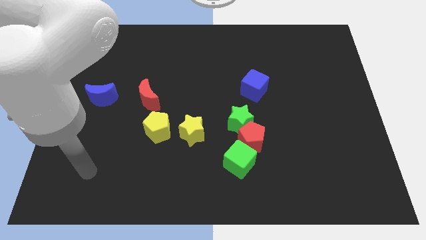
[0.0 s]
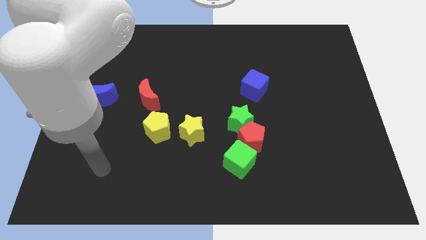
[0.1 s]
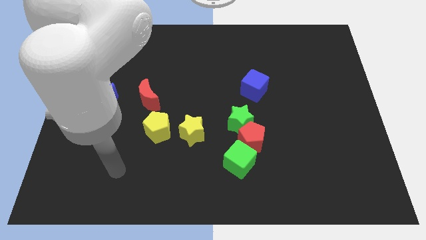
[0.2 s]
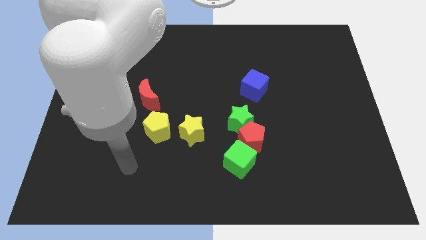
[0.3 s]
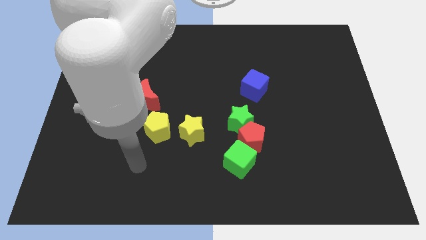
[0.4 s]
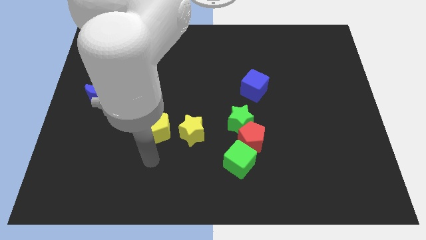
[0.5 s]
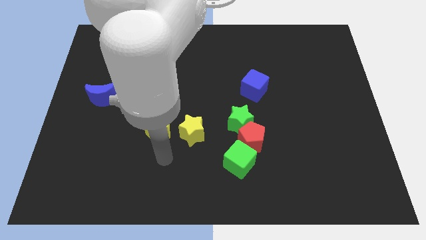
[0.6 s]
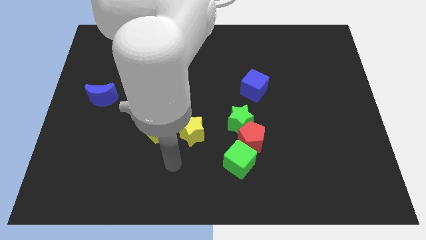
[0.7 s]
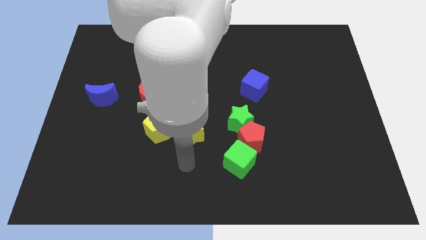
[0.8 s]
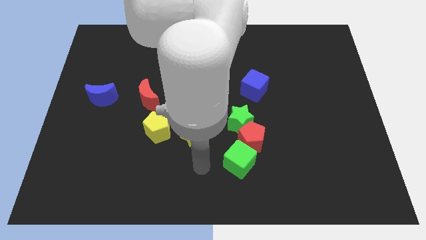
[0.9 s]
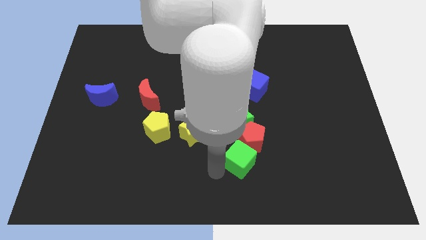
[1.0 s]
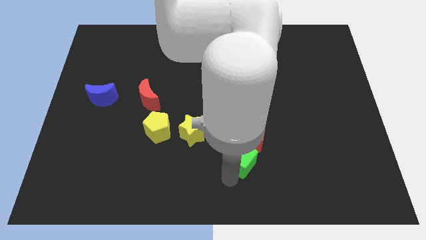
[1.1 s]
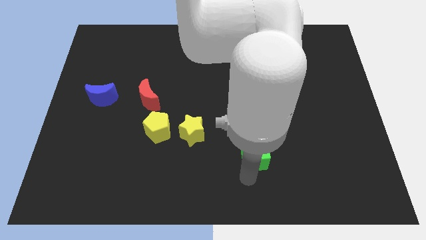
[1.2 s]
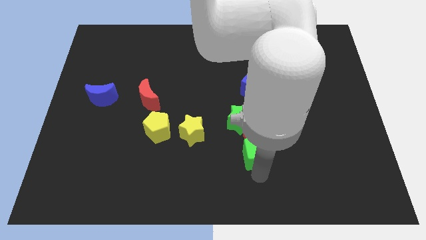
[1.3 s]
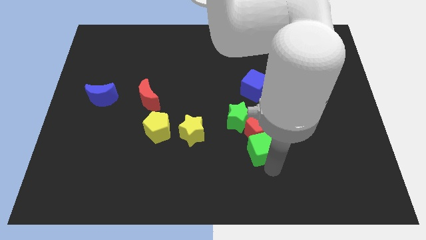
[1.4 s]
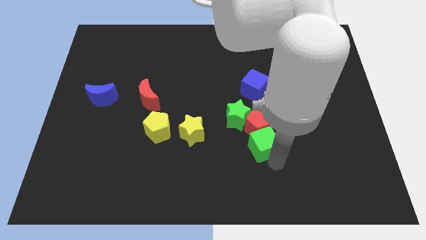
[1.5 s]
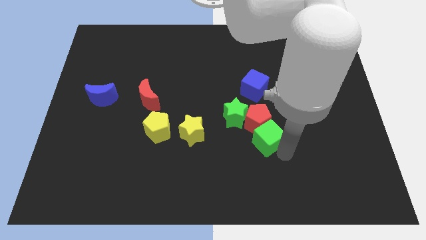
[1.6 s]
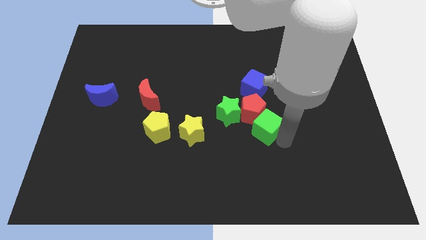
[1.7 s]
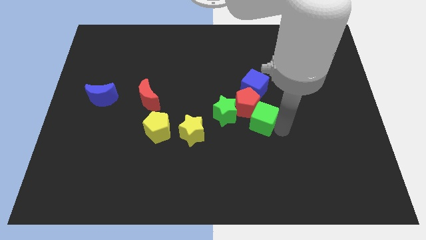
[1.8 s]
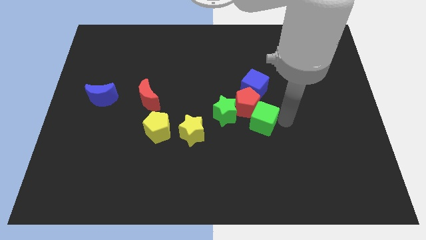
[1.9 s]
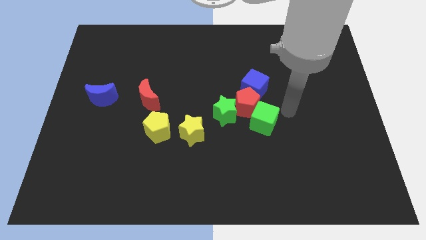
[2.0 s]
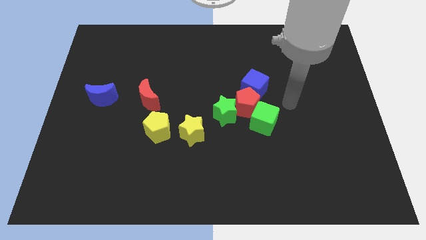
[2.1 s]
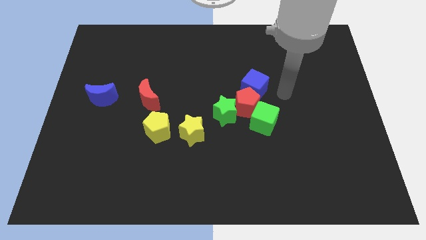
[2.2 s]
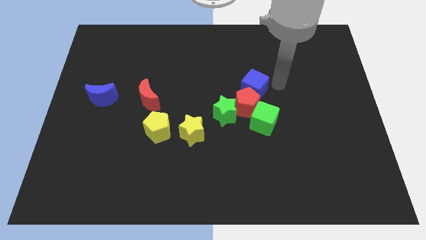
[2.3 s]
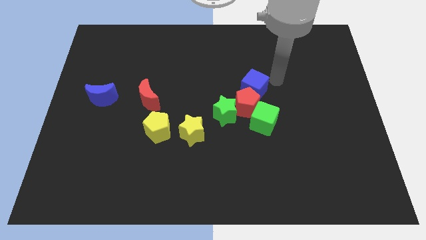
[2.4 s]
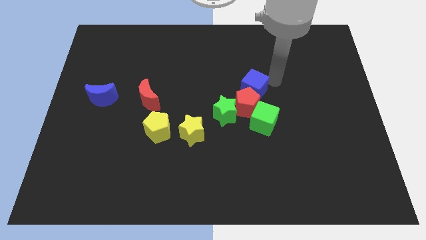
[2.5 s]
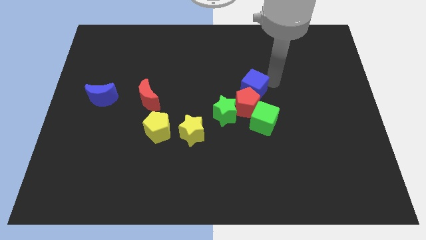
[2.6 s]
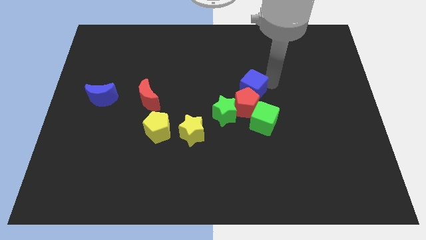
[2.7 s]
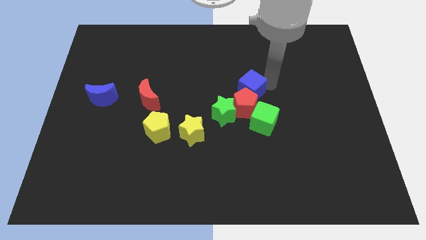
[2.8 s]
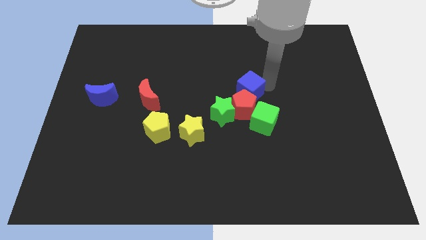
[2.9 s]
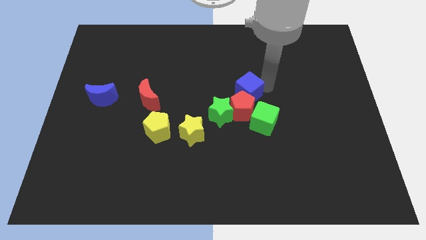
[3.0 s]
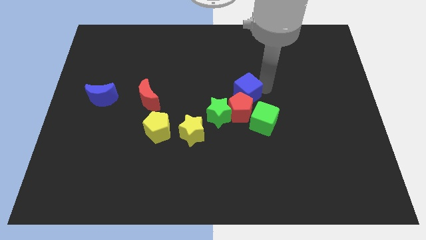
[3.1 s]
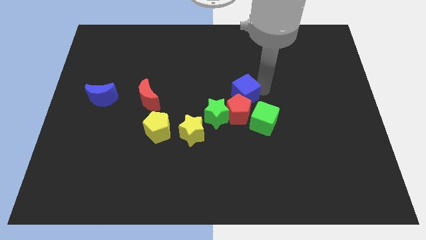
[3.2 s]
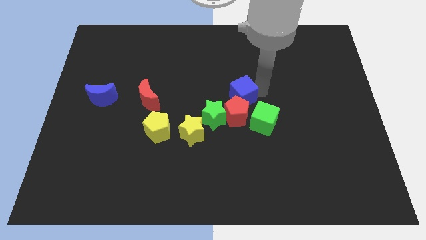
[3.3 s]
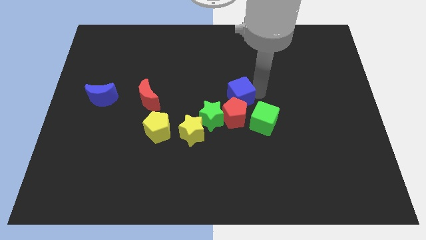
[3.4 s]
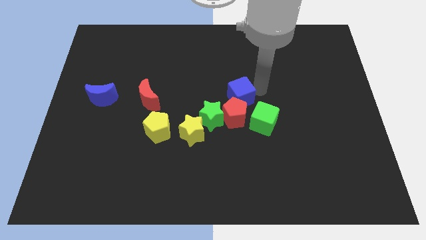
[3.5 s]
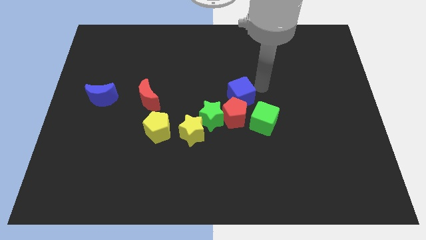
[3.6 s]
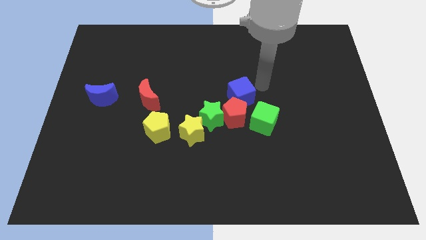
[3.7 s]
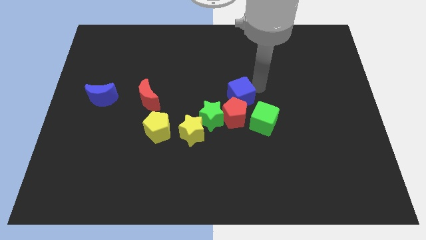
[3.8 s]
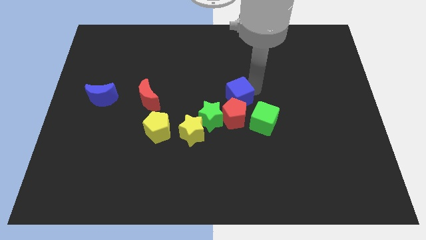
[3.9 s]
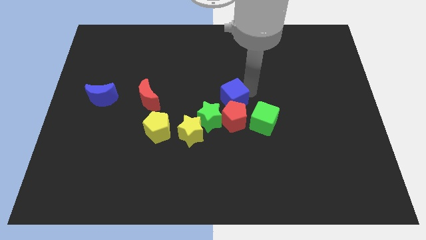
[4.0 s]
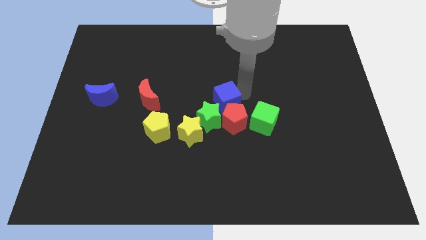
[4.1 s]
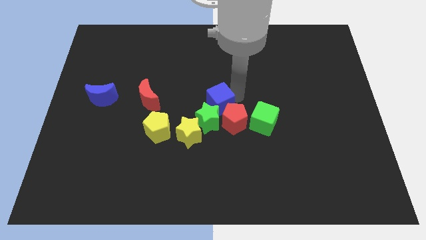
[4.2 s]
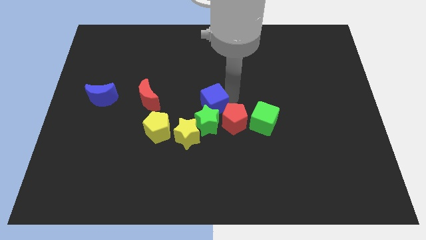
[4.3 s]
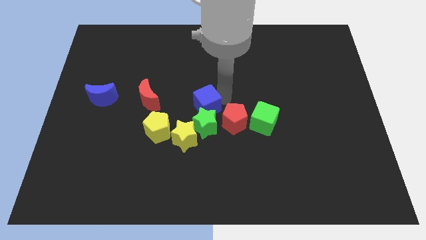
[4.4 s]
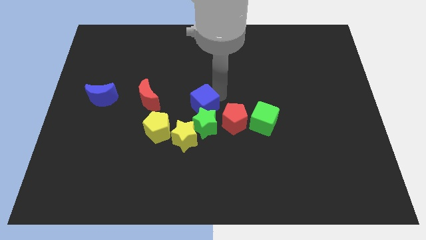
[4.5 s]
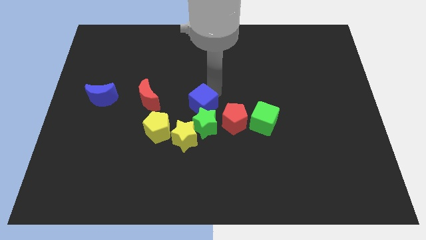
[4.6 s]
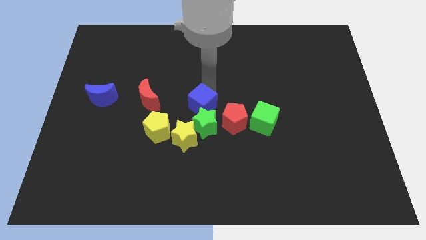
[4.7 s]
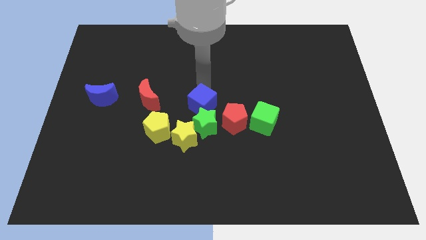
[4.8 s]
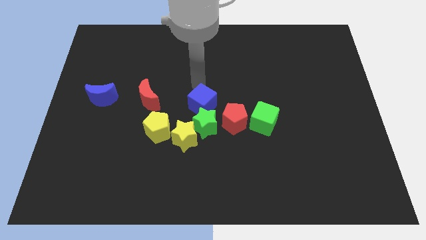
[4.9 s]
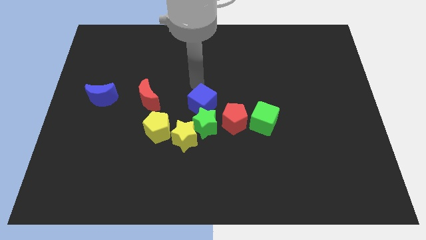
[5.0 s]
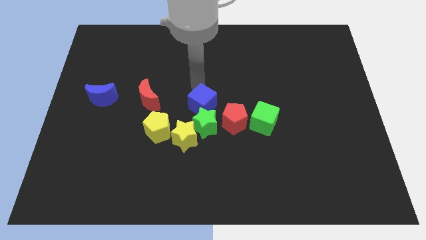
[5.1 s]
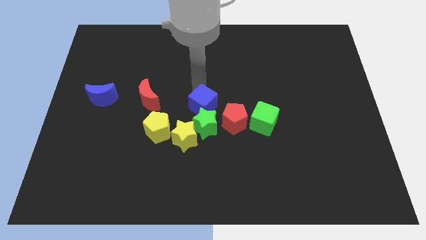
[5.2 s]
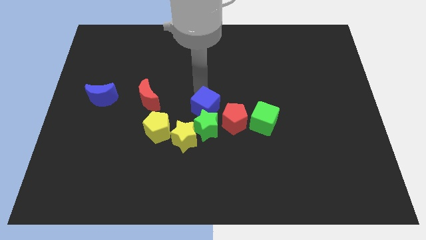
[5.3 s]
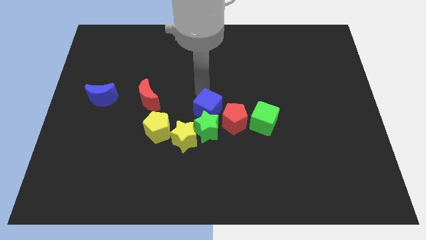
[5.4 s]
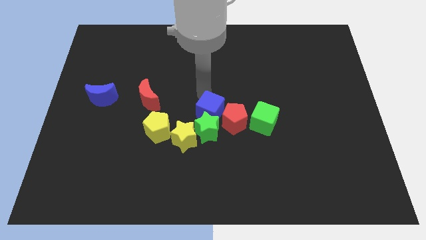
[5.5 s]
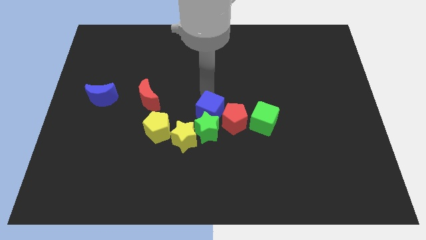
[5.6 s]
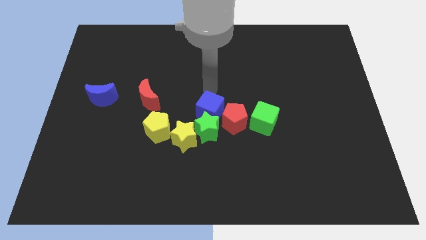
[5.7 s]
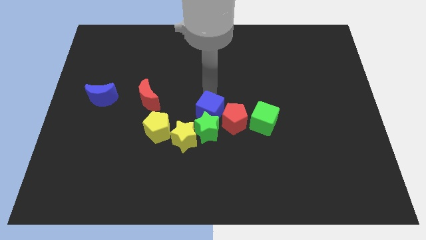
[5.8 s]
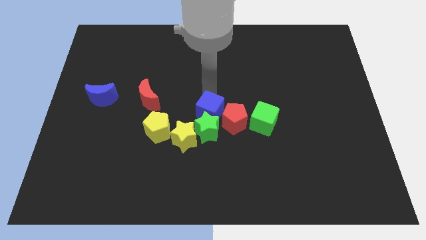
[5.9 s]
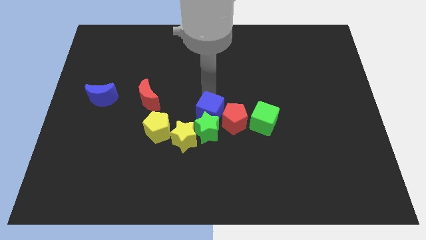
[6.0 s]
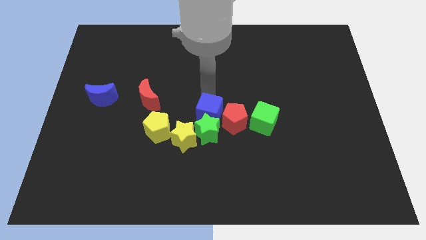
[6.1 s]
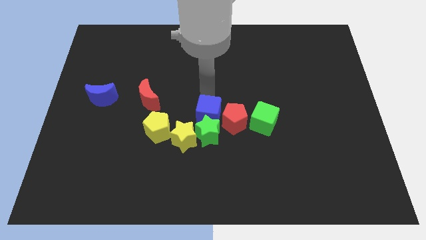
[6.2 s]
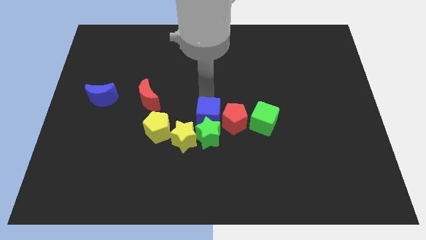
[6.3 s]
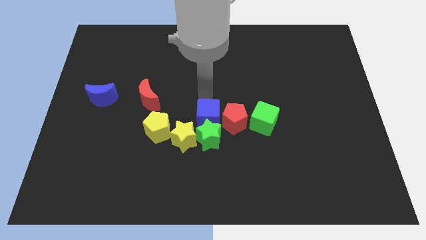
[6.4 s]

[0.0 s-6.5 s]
push the blue cube to the bottom left side of the red pentagon

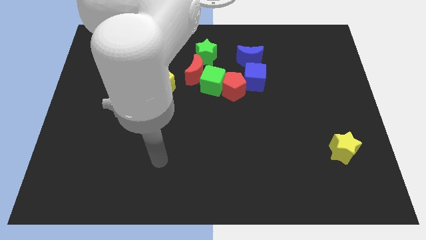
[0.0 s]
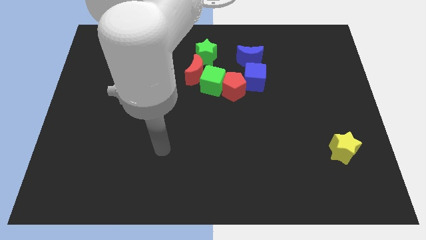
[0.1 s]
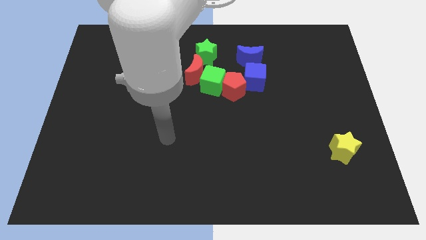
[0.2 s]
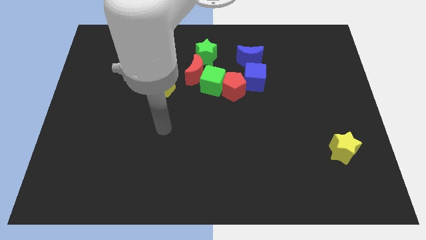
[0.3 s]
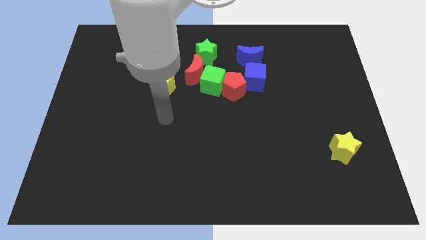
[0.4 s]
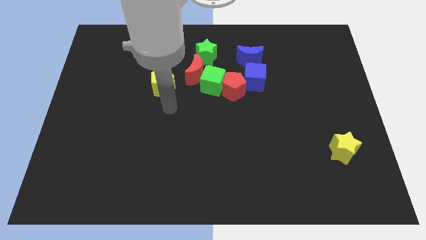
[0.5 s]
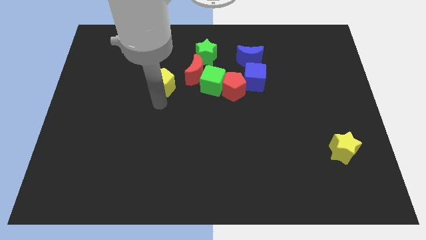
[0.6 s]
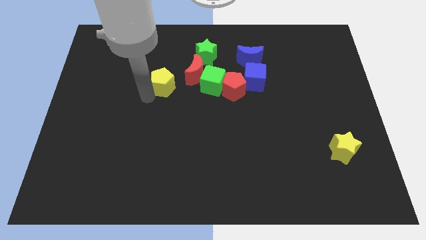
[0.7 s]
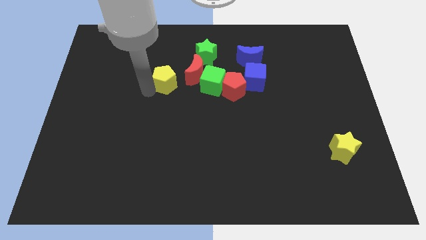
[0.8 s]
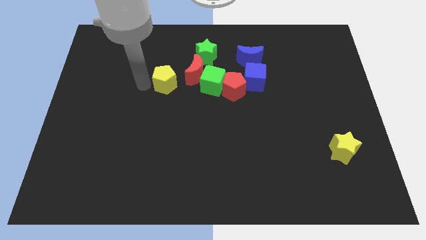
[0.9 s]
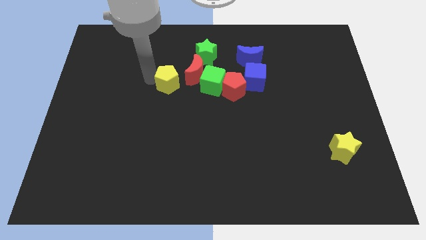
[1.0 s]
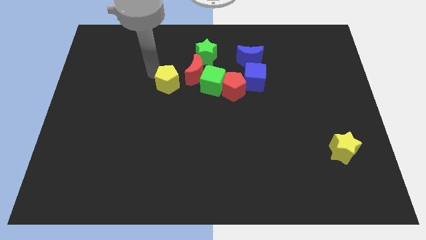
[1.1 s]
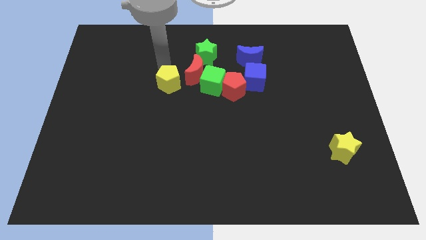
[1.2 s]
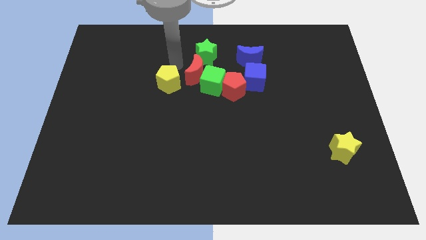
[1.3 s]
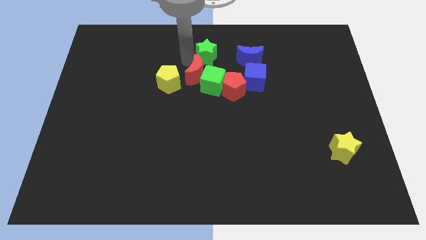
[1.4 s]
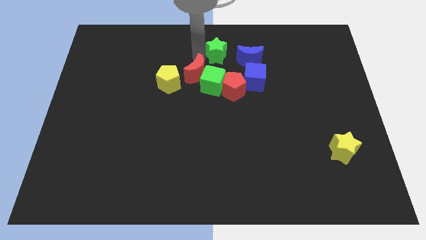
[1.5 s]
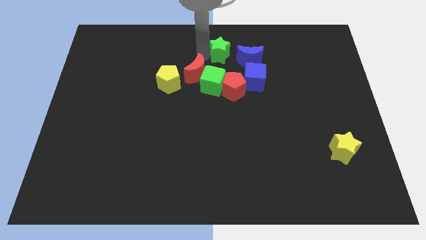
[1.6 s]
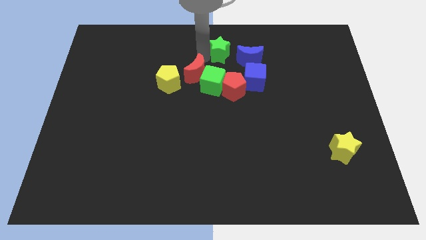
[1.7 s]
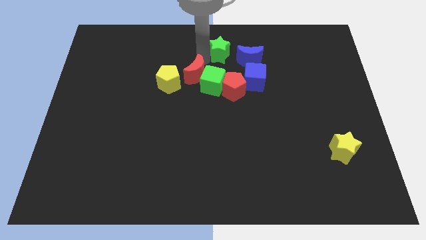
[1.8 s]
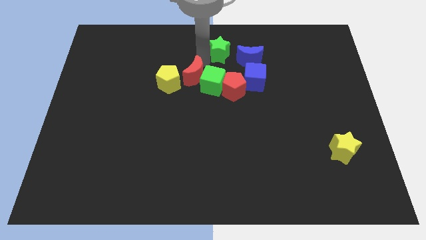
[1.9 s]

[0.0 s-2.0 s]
push the red moon just left of the red pentagon
